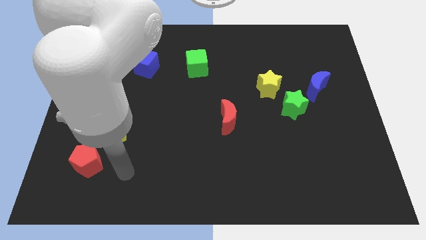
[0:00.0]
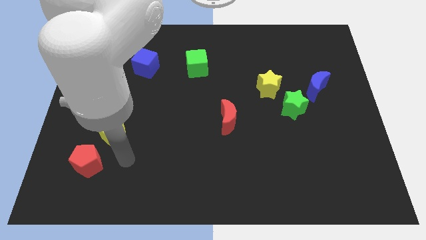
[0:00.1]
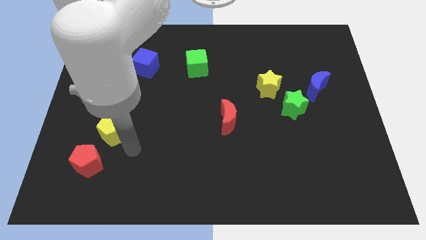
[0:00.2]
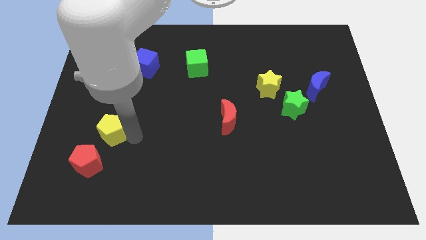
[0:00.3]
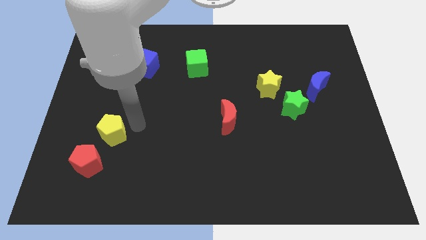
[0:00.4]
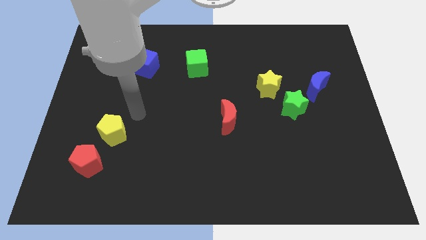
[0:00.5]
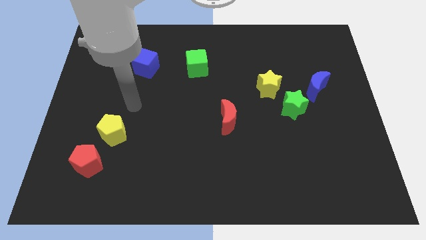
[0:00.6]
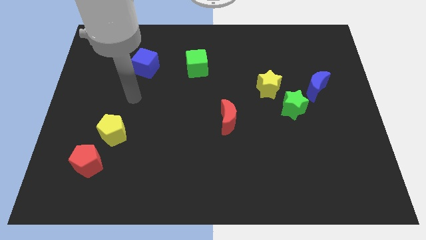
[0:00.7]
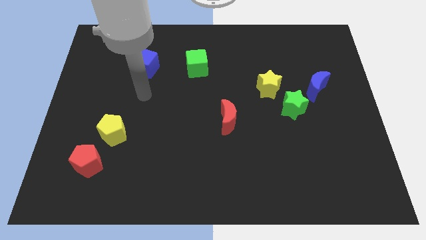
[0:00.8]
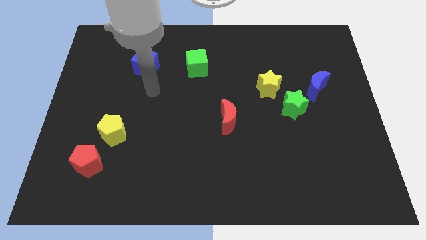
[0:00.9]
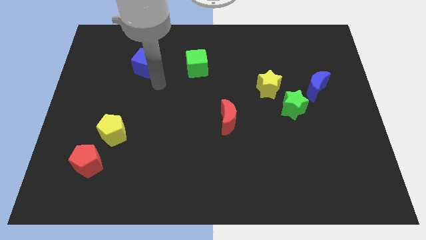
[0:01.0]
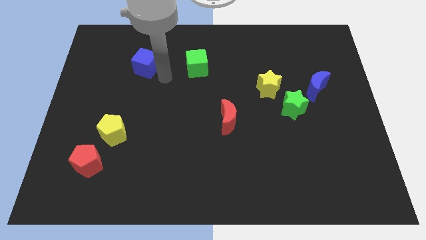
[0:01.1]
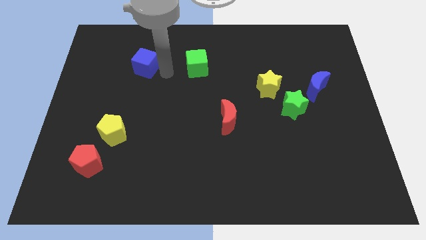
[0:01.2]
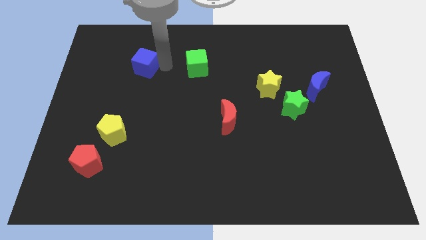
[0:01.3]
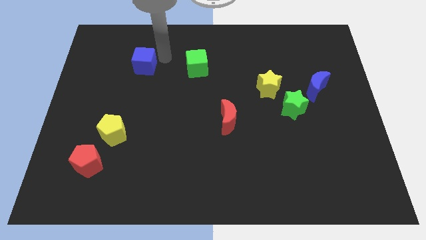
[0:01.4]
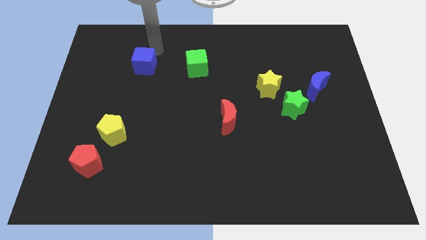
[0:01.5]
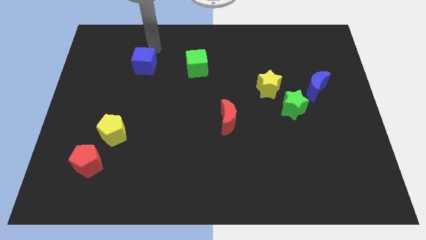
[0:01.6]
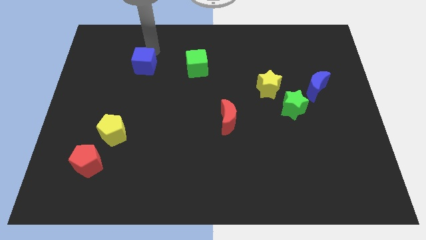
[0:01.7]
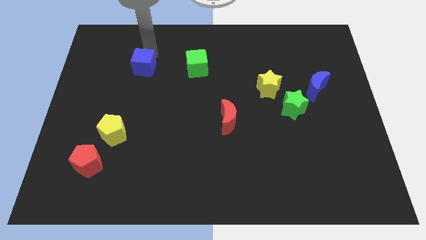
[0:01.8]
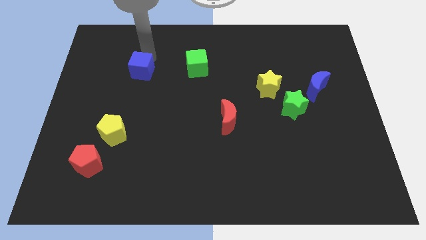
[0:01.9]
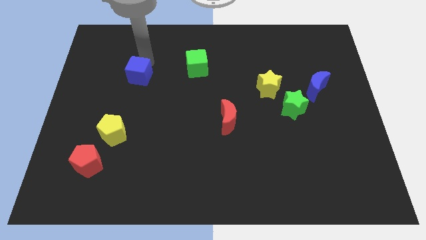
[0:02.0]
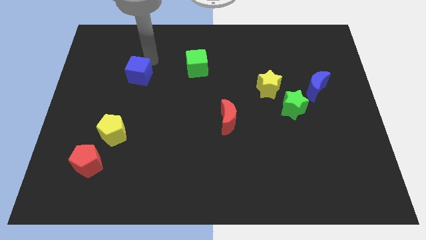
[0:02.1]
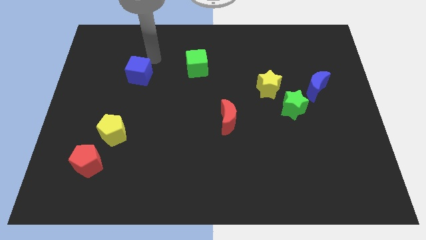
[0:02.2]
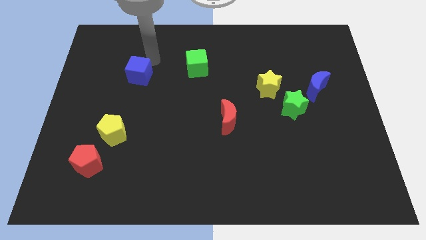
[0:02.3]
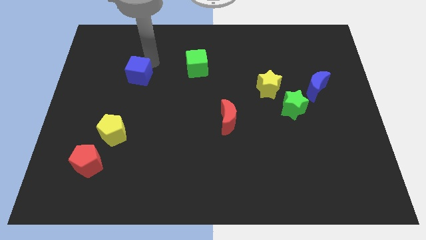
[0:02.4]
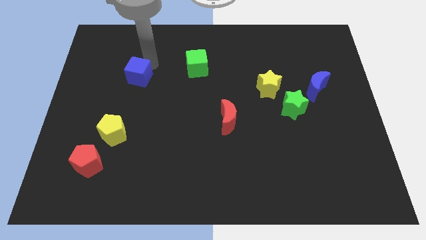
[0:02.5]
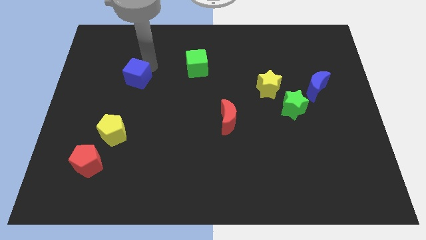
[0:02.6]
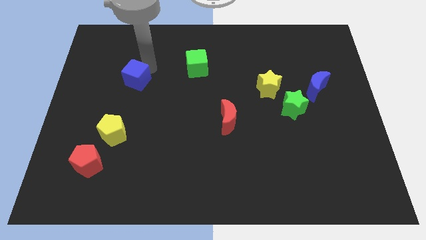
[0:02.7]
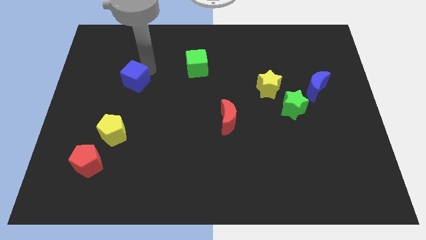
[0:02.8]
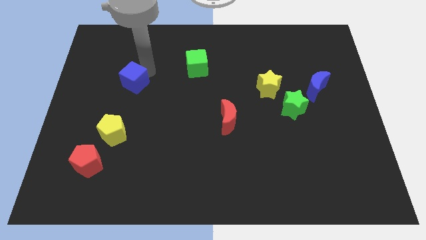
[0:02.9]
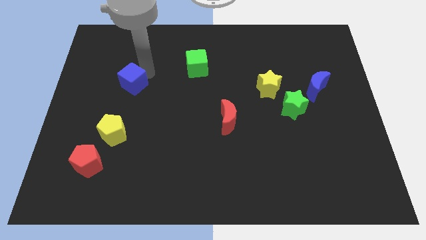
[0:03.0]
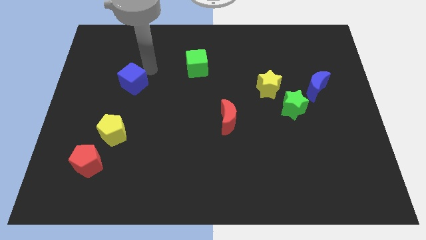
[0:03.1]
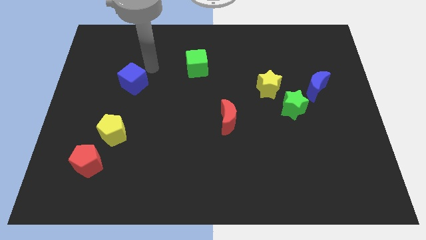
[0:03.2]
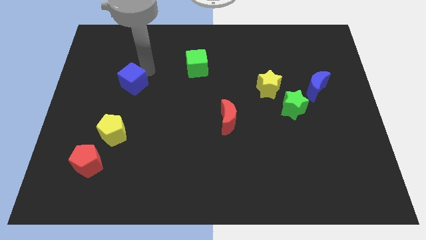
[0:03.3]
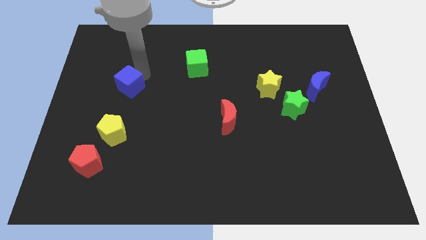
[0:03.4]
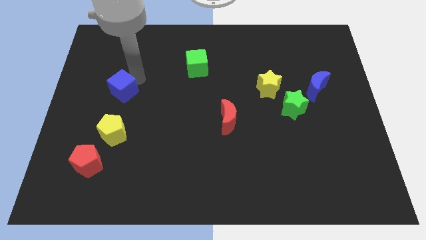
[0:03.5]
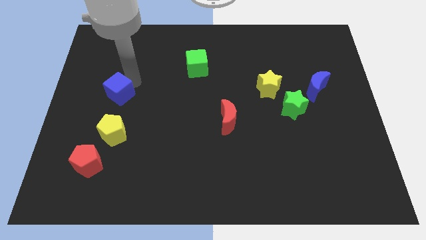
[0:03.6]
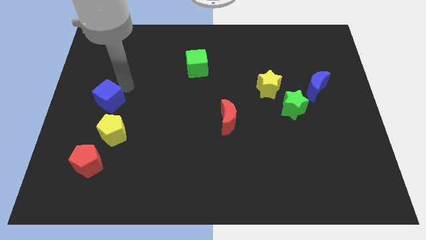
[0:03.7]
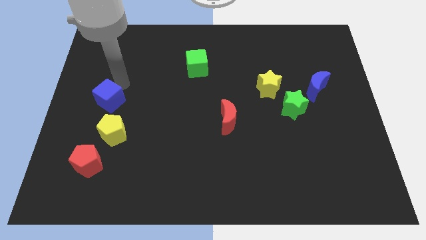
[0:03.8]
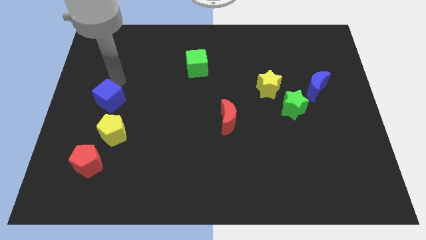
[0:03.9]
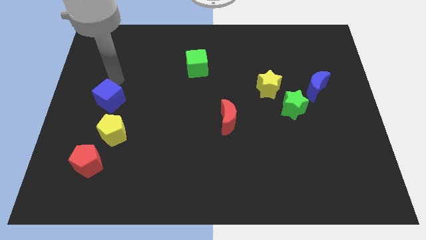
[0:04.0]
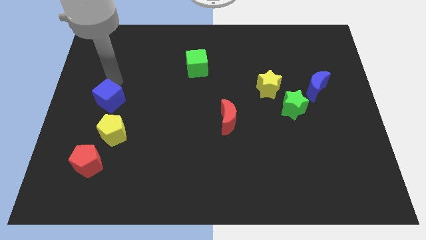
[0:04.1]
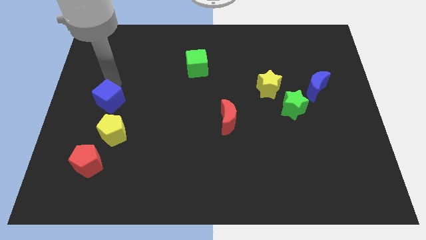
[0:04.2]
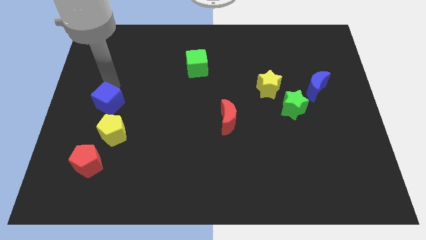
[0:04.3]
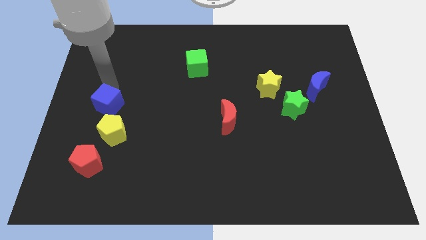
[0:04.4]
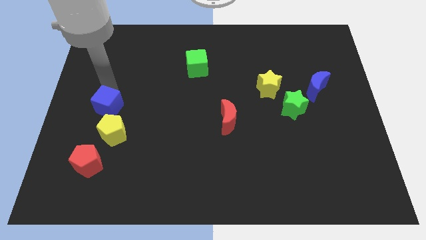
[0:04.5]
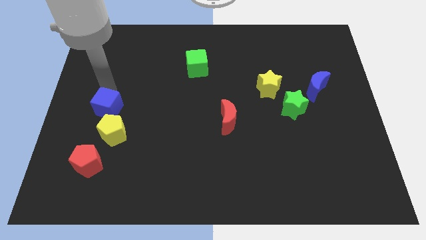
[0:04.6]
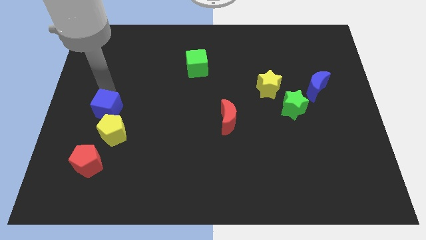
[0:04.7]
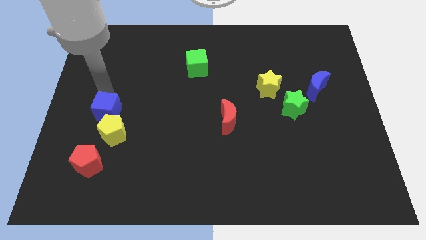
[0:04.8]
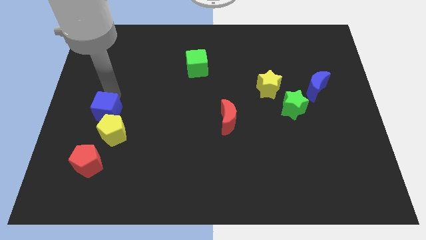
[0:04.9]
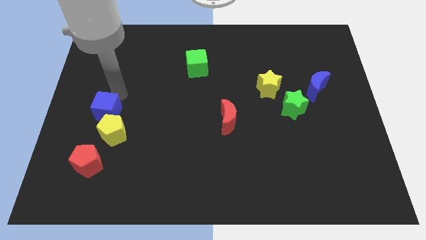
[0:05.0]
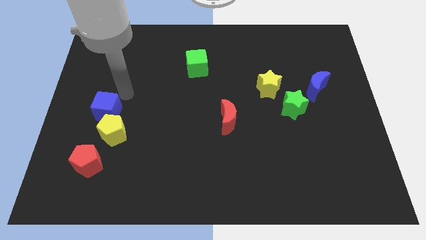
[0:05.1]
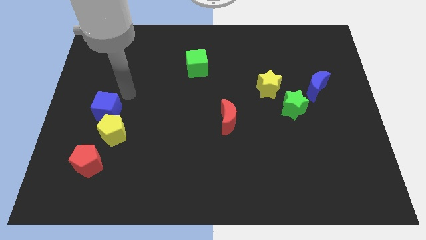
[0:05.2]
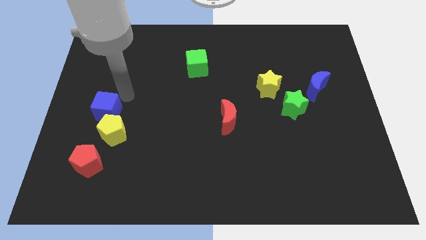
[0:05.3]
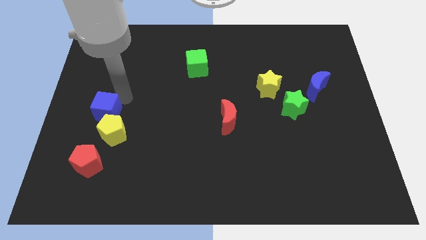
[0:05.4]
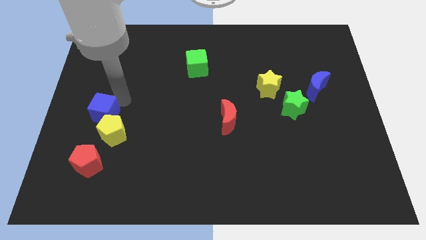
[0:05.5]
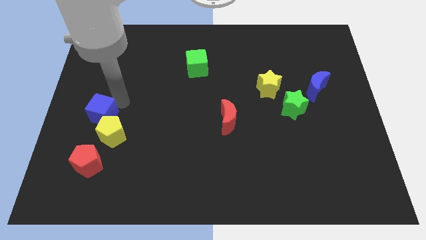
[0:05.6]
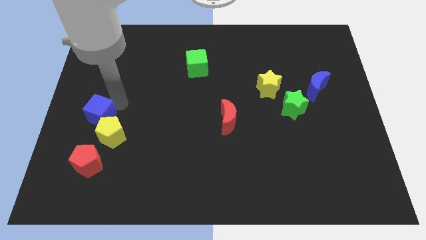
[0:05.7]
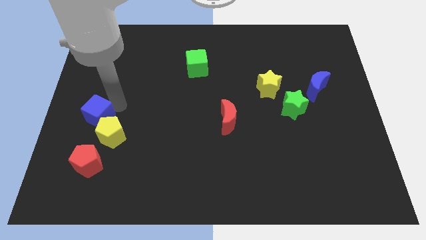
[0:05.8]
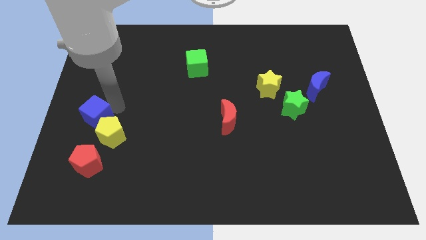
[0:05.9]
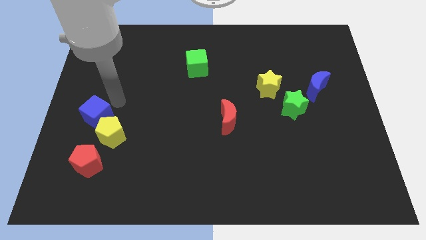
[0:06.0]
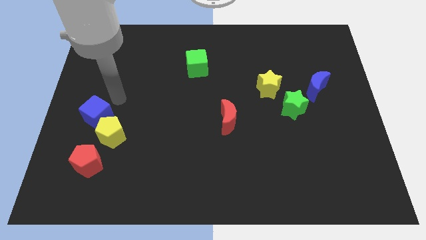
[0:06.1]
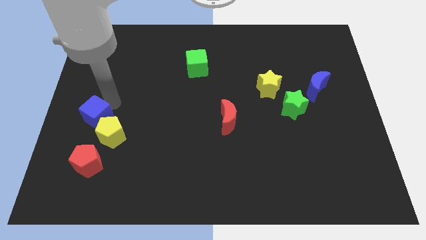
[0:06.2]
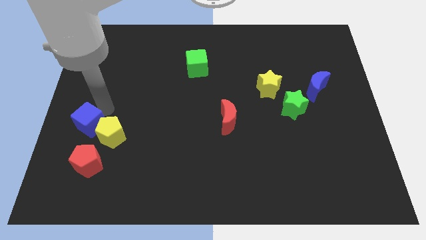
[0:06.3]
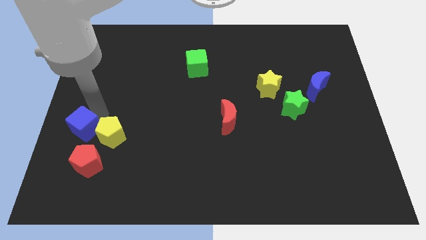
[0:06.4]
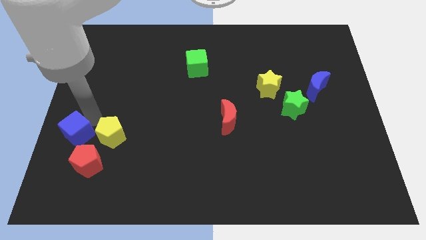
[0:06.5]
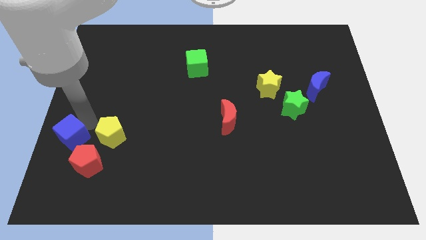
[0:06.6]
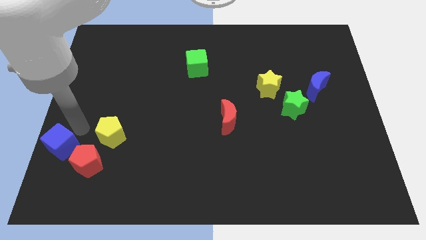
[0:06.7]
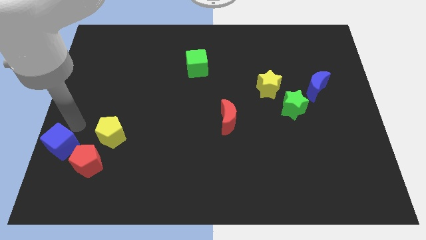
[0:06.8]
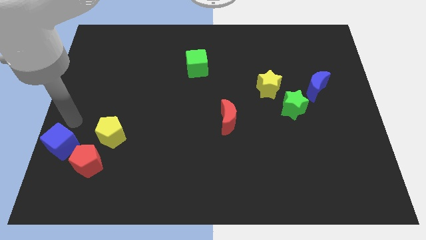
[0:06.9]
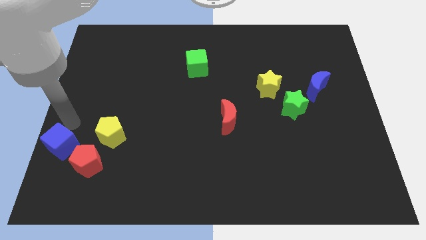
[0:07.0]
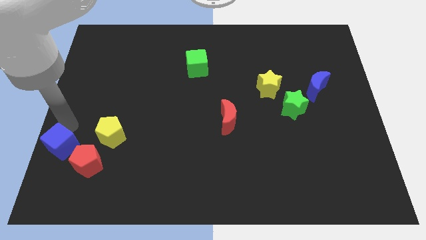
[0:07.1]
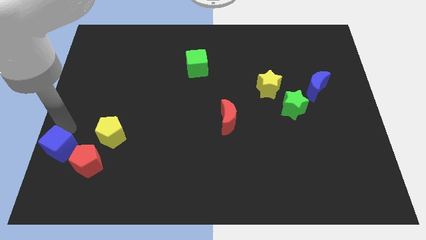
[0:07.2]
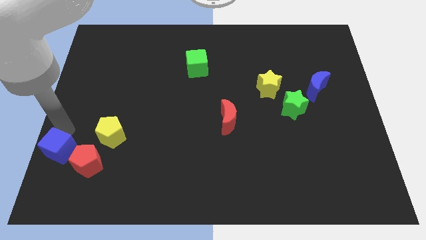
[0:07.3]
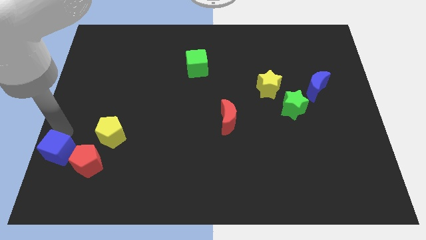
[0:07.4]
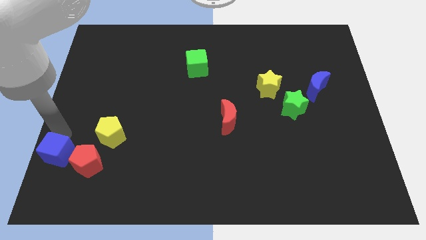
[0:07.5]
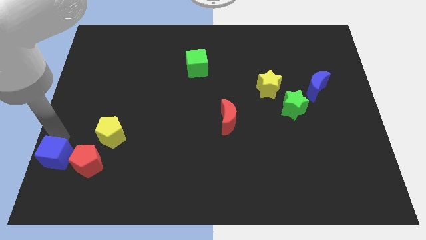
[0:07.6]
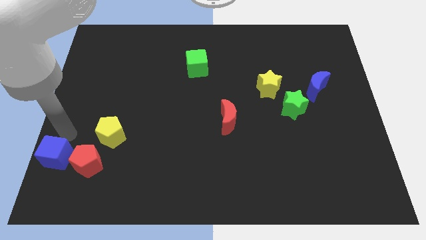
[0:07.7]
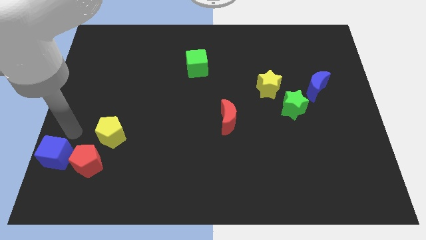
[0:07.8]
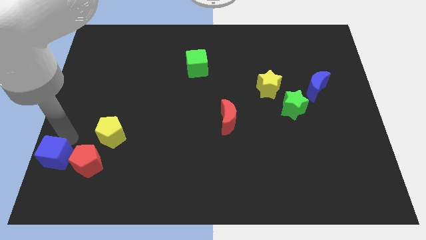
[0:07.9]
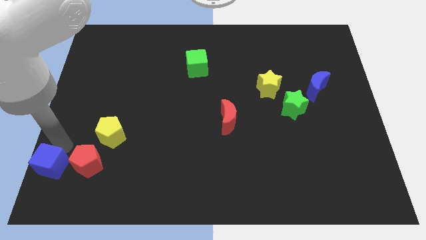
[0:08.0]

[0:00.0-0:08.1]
push the blue cube to the bottom left of the board
